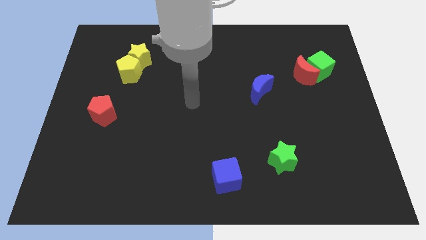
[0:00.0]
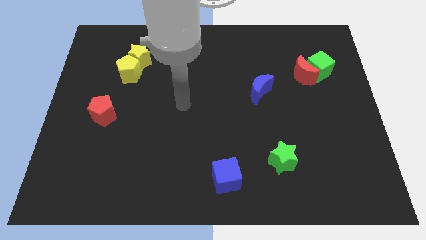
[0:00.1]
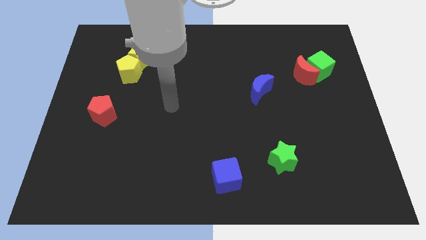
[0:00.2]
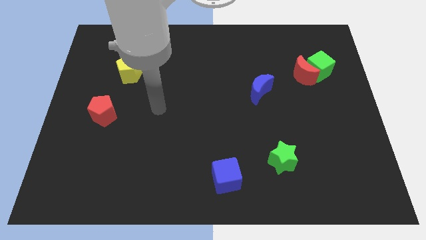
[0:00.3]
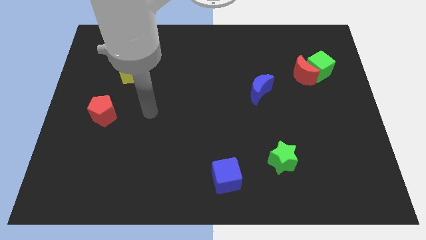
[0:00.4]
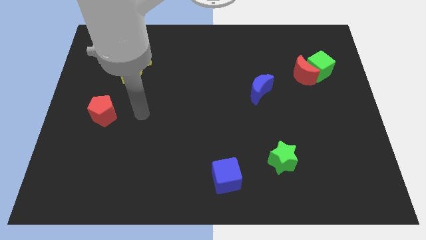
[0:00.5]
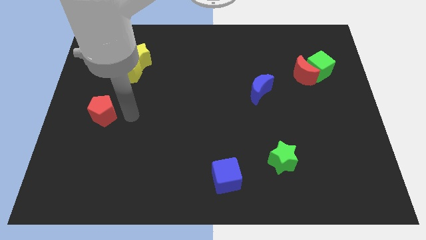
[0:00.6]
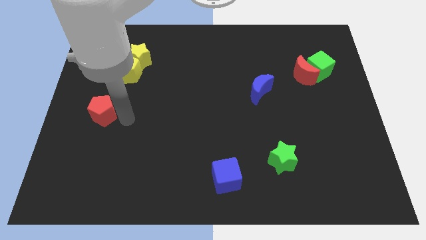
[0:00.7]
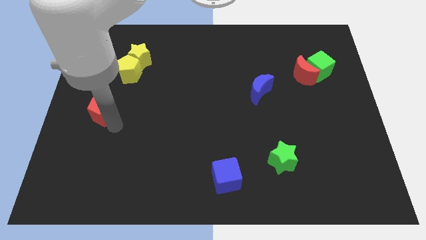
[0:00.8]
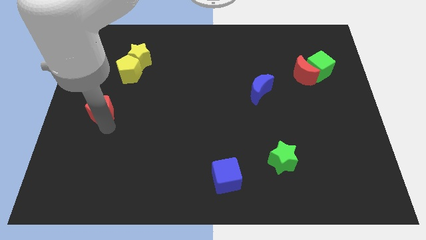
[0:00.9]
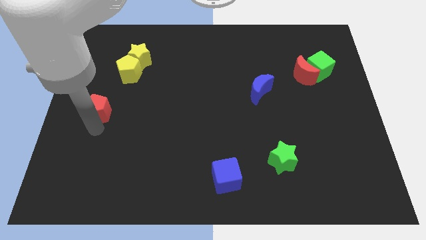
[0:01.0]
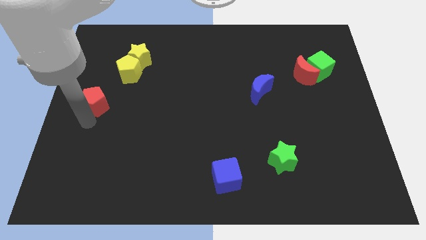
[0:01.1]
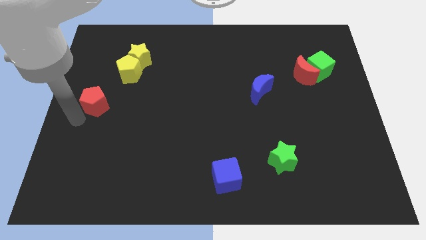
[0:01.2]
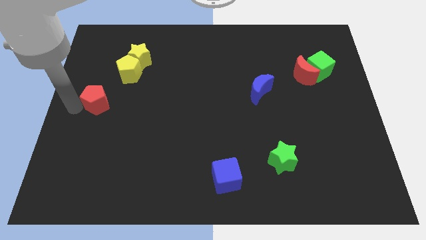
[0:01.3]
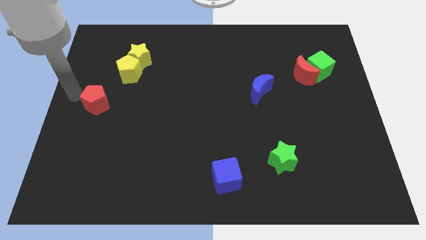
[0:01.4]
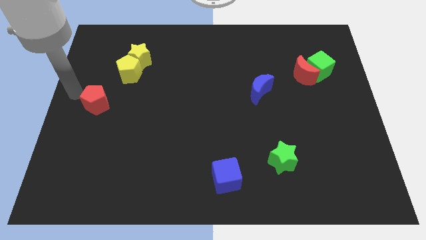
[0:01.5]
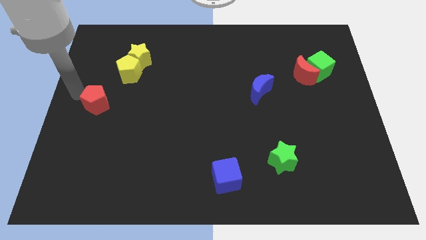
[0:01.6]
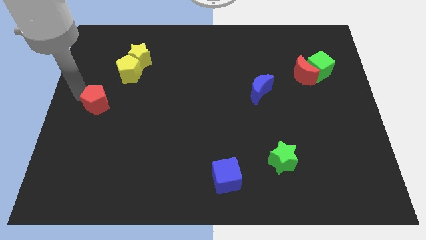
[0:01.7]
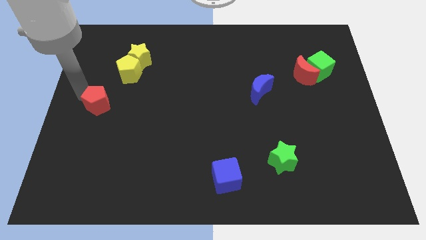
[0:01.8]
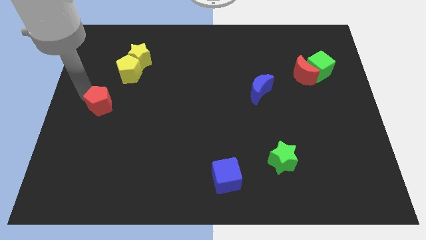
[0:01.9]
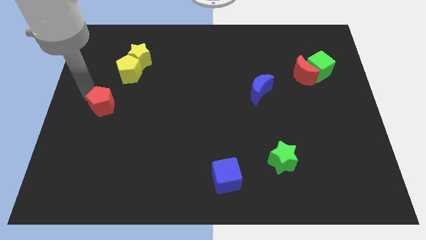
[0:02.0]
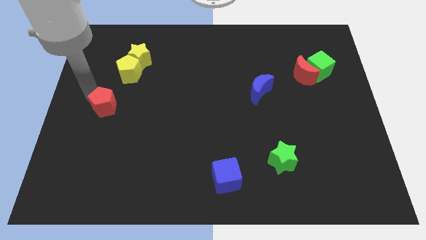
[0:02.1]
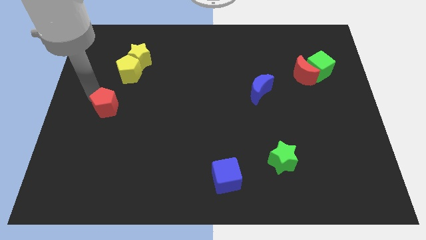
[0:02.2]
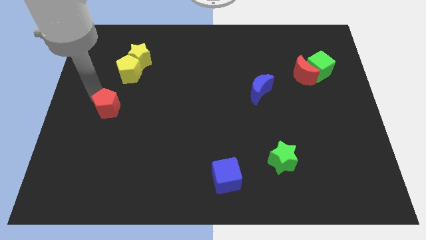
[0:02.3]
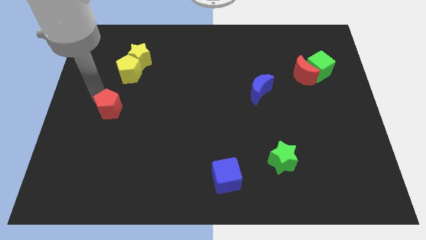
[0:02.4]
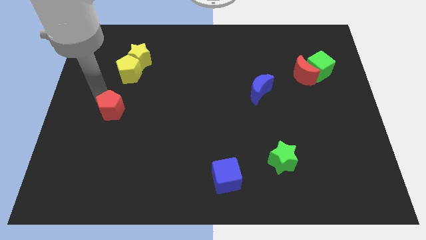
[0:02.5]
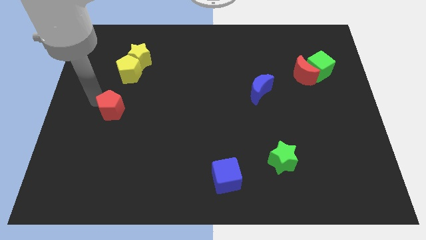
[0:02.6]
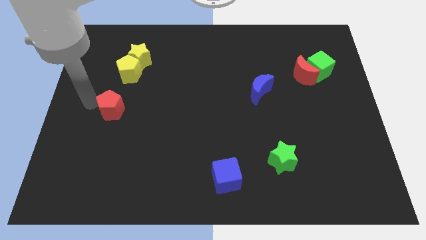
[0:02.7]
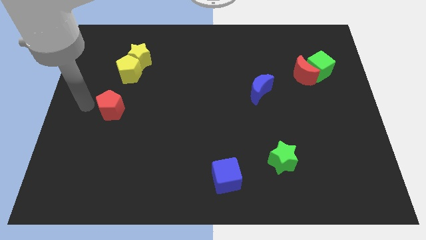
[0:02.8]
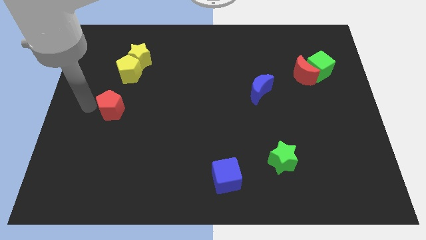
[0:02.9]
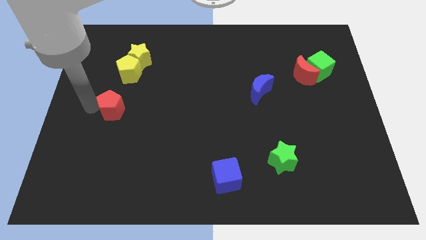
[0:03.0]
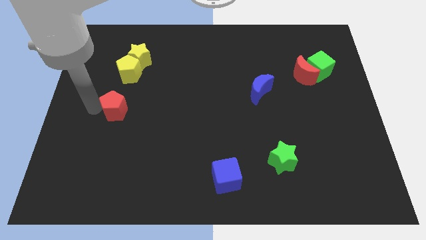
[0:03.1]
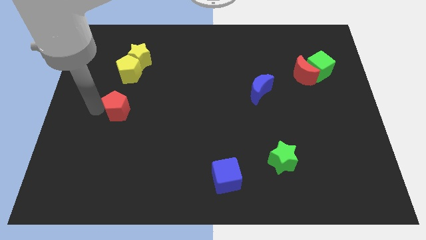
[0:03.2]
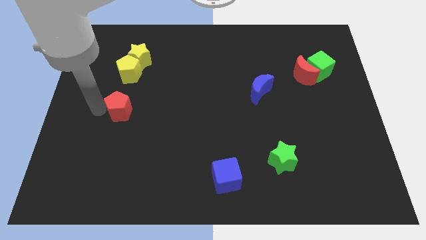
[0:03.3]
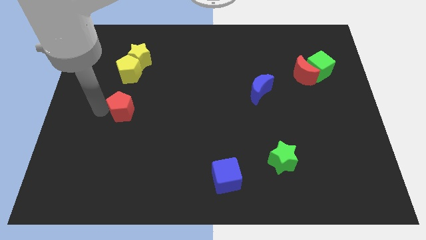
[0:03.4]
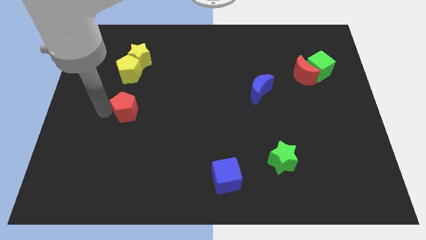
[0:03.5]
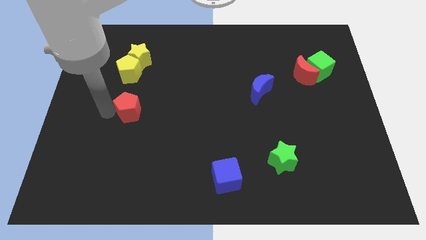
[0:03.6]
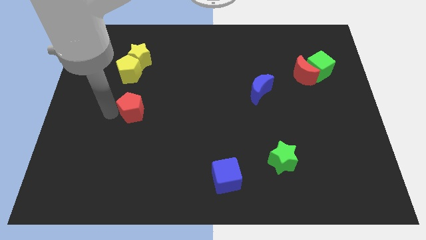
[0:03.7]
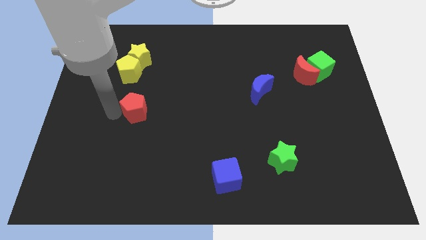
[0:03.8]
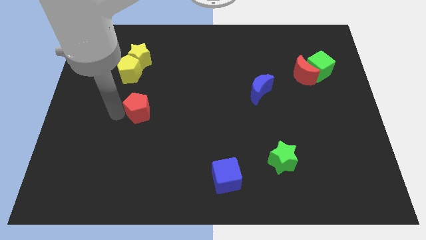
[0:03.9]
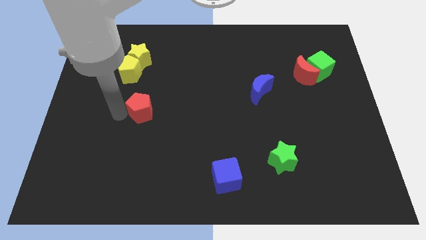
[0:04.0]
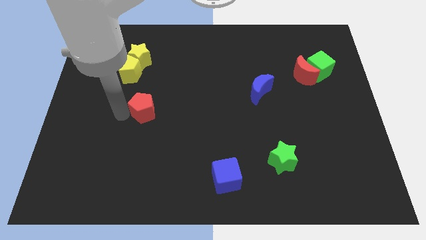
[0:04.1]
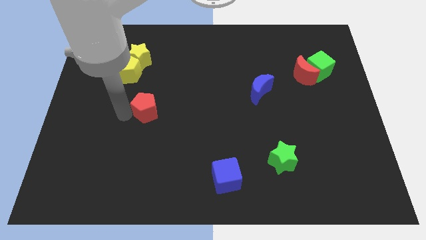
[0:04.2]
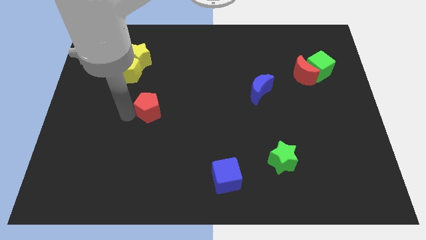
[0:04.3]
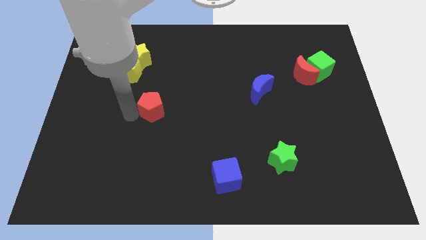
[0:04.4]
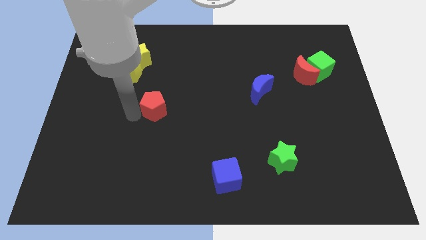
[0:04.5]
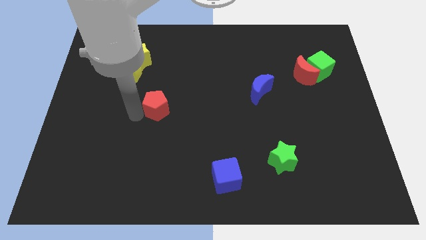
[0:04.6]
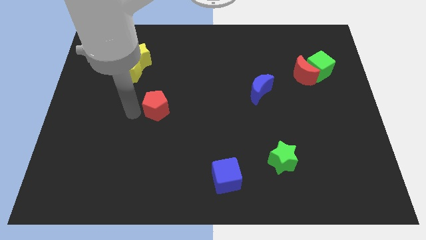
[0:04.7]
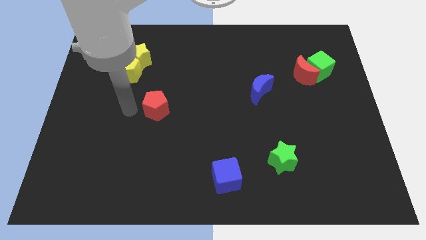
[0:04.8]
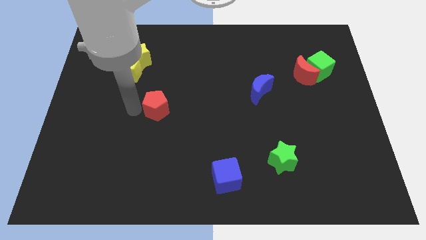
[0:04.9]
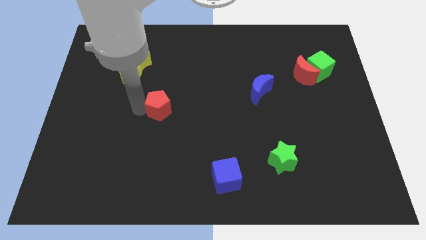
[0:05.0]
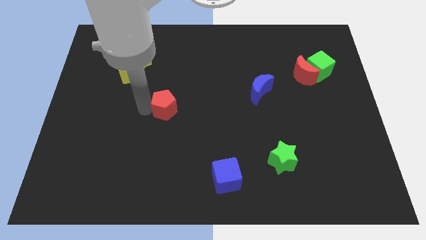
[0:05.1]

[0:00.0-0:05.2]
move the red pentagon to the middle of the board
